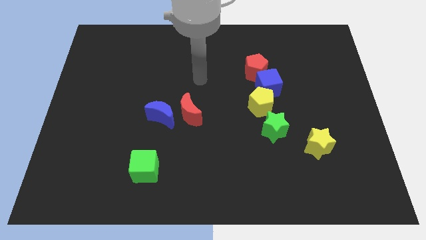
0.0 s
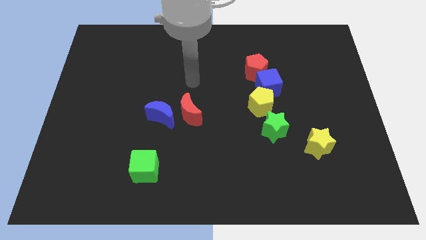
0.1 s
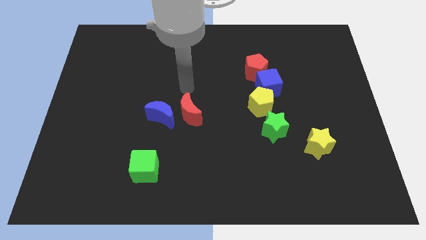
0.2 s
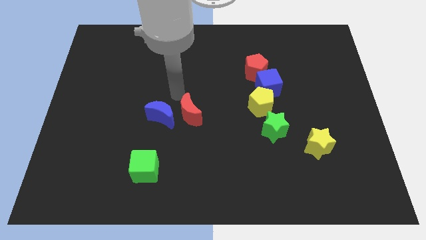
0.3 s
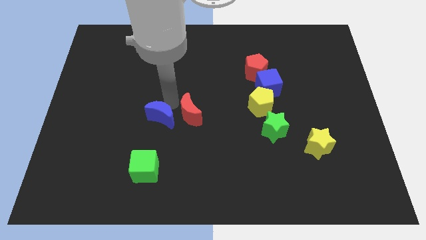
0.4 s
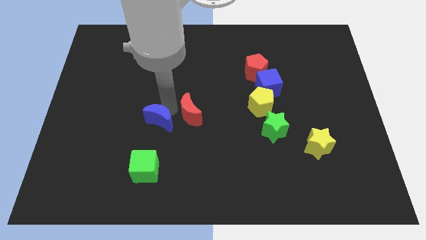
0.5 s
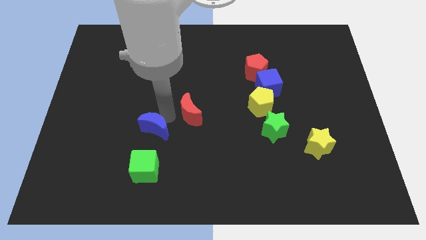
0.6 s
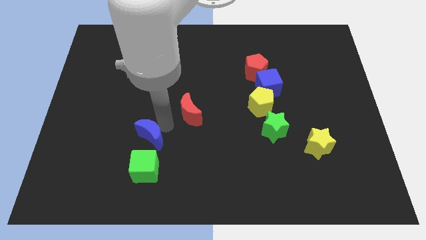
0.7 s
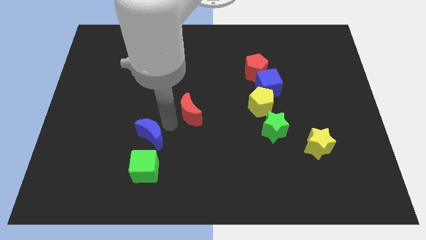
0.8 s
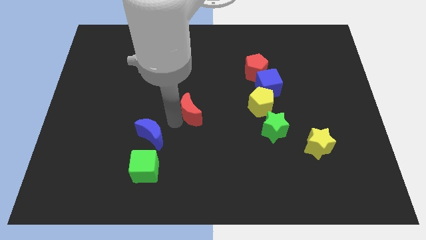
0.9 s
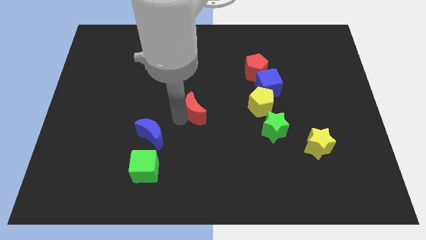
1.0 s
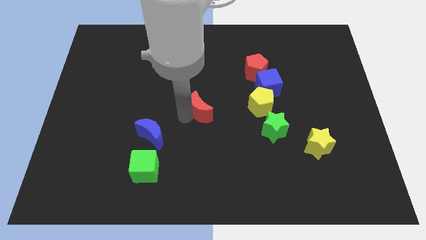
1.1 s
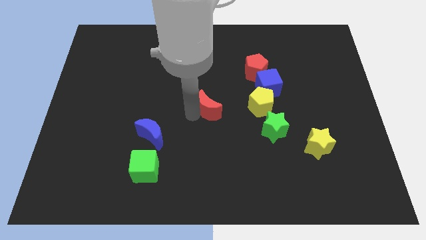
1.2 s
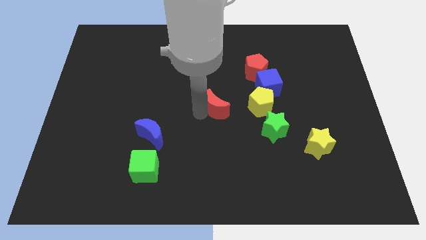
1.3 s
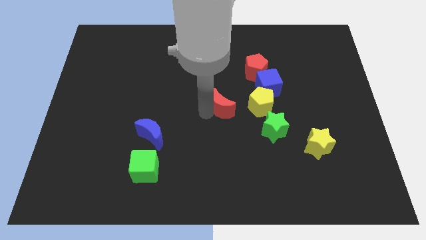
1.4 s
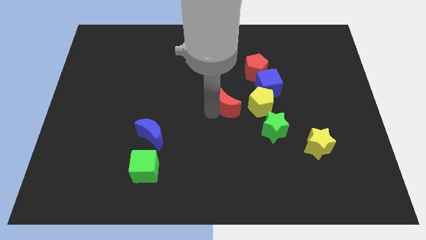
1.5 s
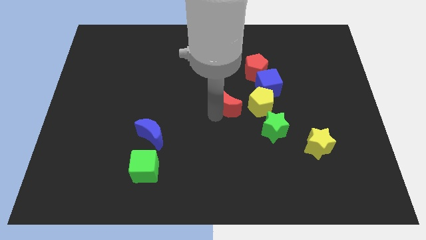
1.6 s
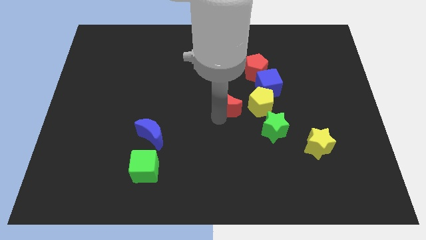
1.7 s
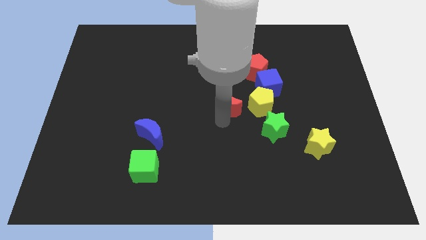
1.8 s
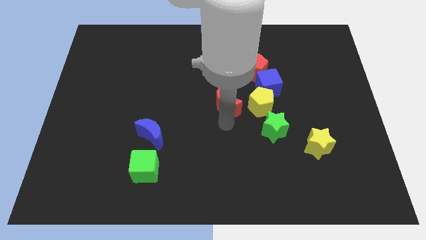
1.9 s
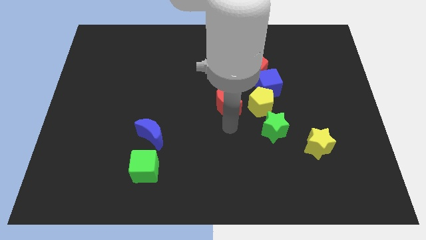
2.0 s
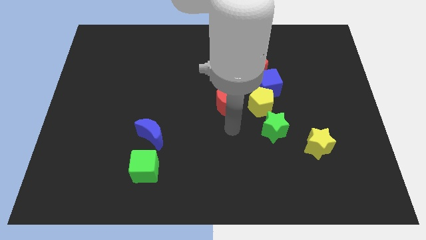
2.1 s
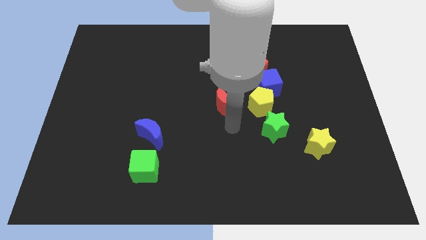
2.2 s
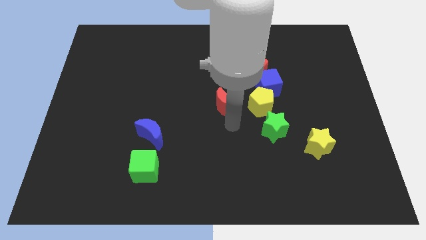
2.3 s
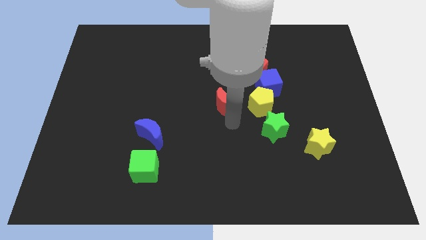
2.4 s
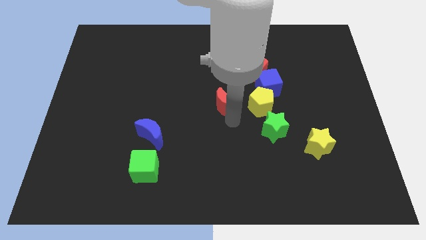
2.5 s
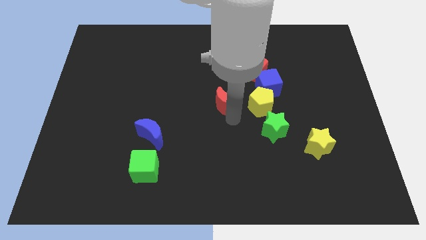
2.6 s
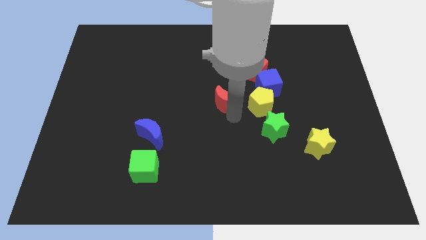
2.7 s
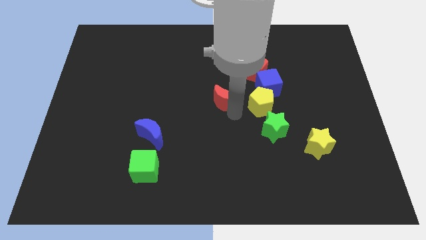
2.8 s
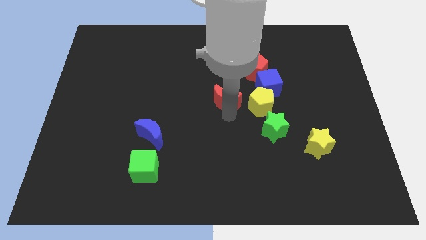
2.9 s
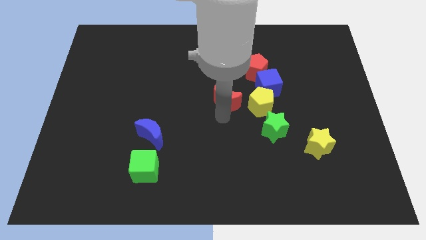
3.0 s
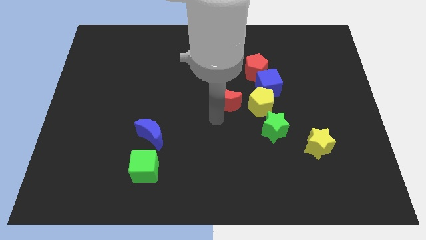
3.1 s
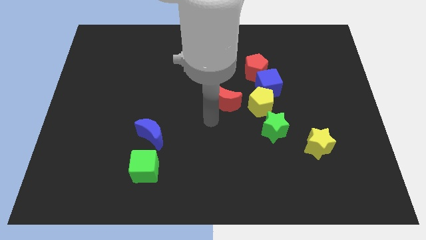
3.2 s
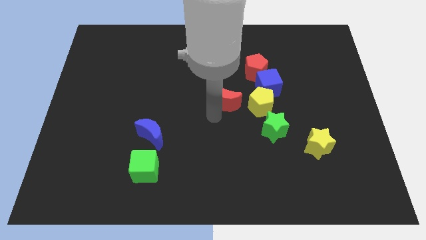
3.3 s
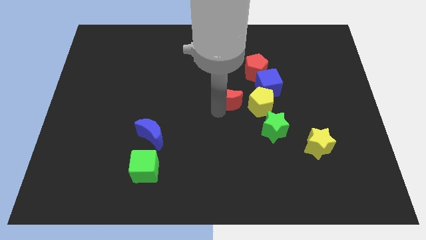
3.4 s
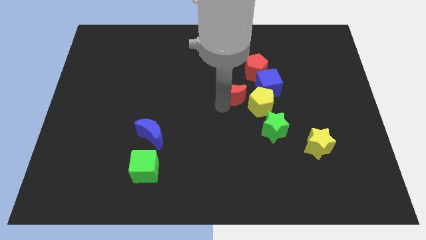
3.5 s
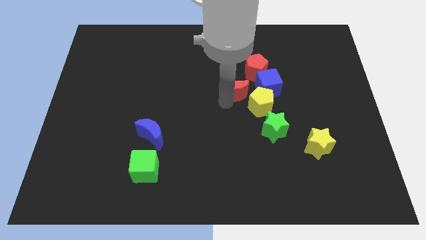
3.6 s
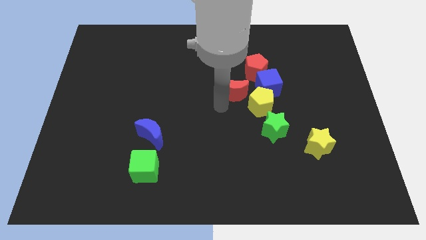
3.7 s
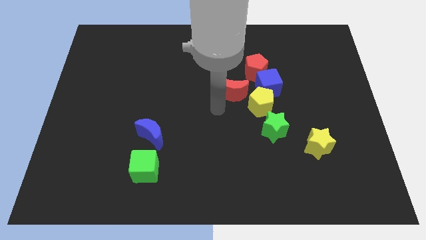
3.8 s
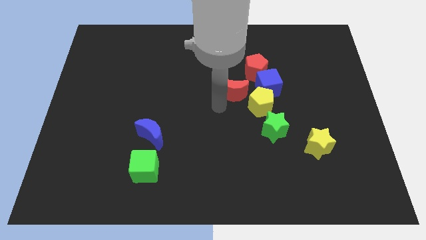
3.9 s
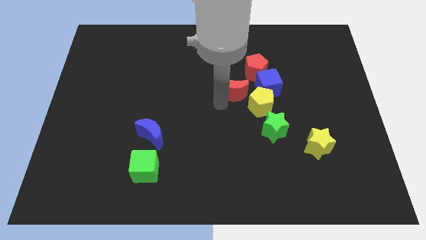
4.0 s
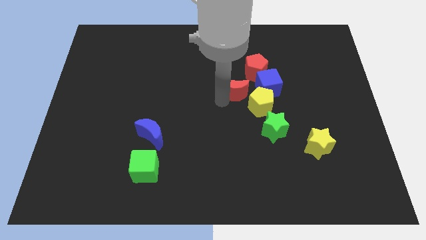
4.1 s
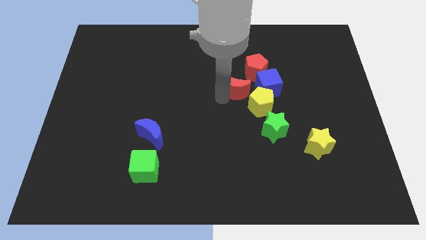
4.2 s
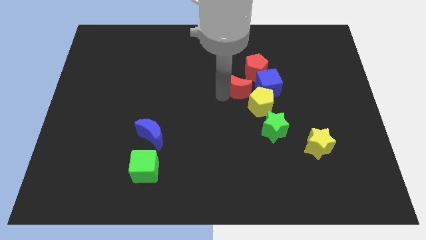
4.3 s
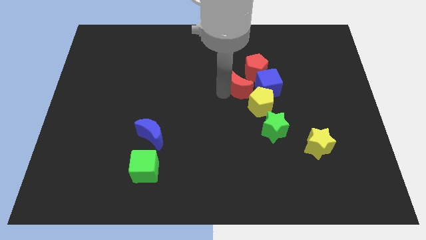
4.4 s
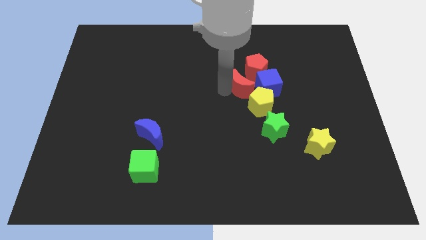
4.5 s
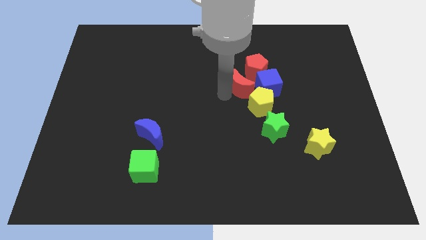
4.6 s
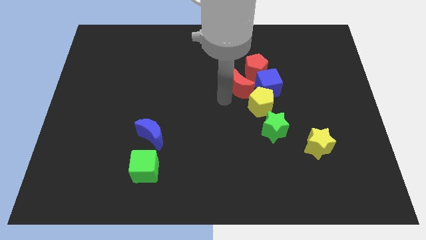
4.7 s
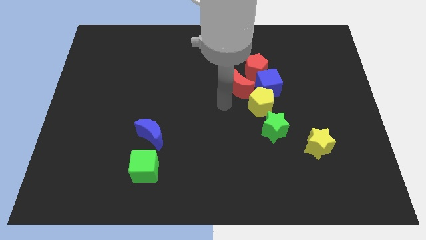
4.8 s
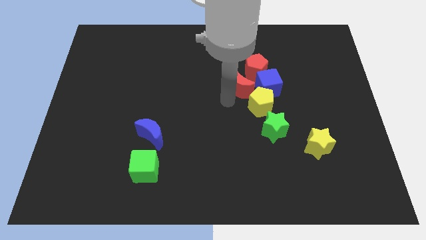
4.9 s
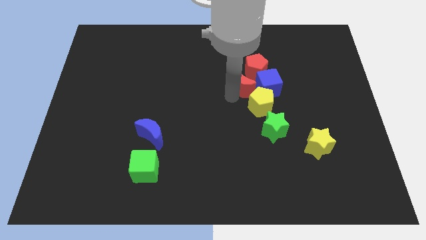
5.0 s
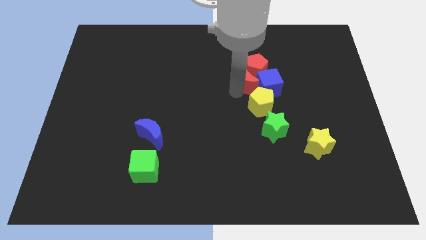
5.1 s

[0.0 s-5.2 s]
move the red moon close to the red pentagon

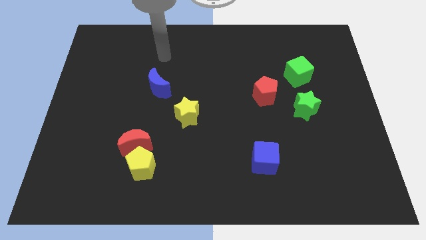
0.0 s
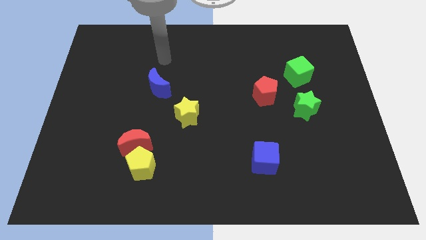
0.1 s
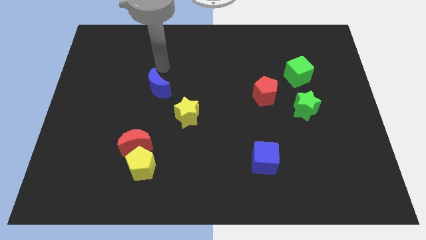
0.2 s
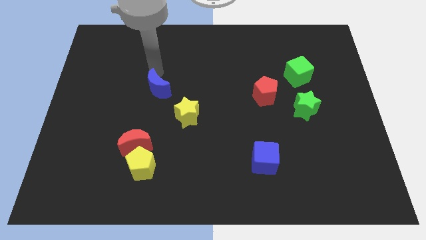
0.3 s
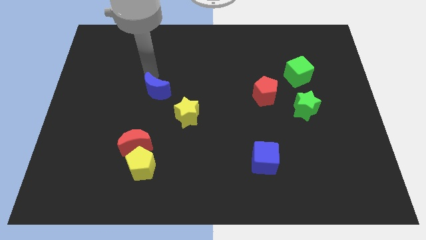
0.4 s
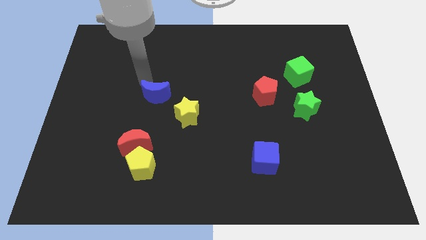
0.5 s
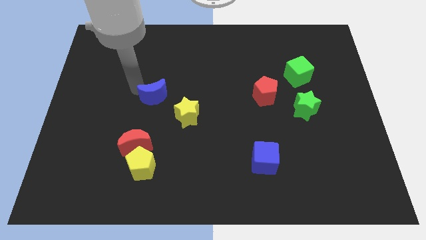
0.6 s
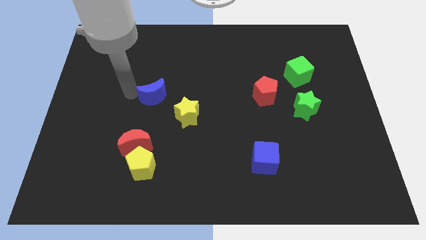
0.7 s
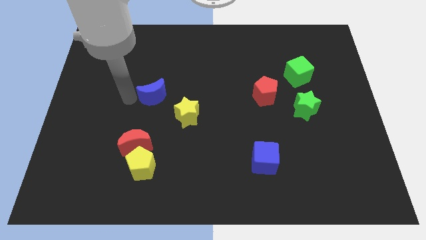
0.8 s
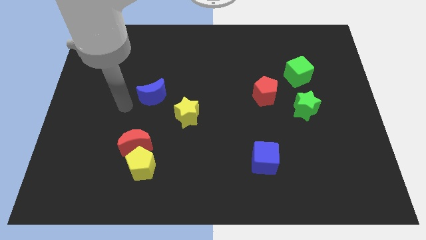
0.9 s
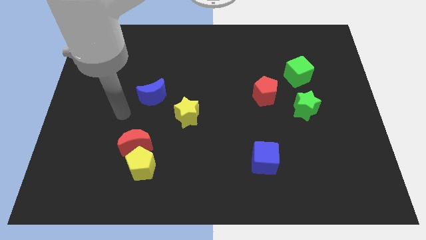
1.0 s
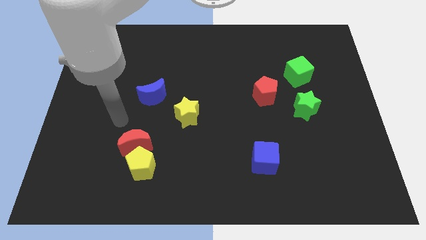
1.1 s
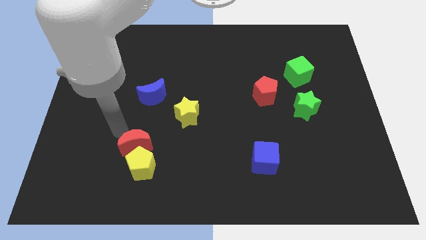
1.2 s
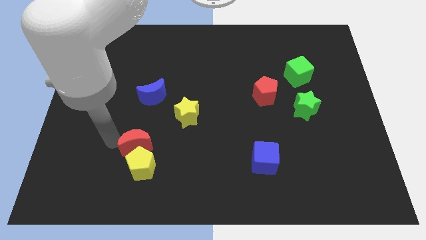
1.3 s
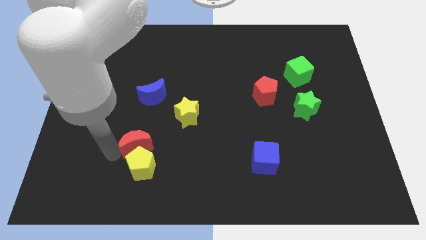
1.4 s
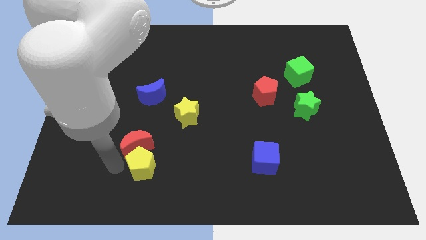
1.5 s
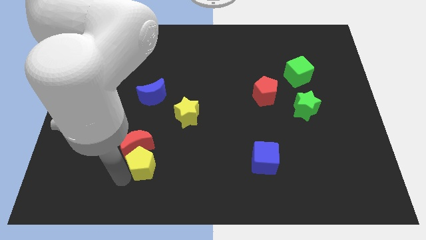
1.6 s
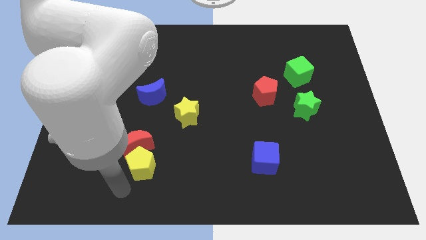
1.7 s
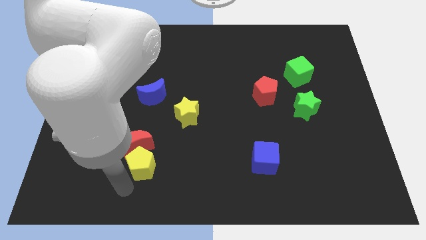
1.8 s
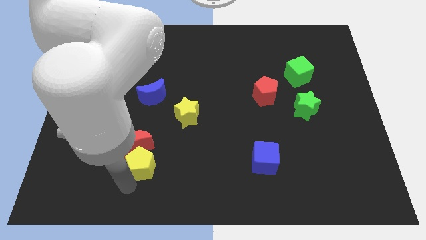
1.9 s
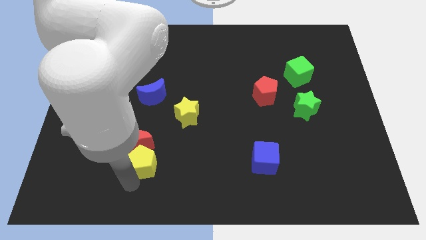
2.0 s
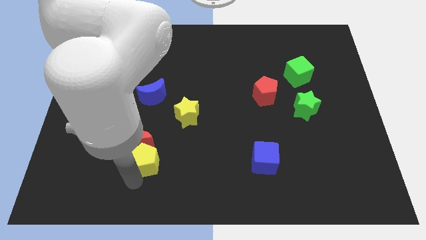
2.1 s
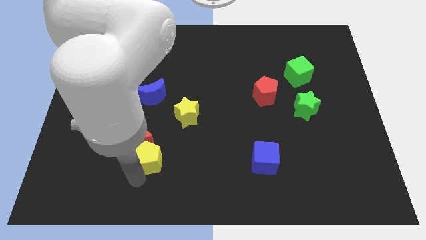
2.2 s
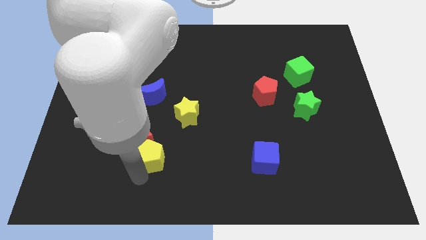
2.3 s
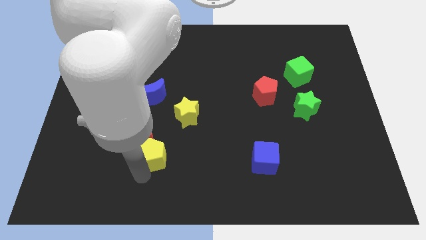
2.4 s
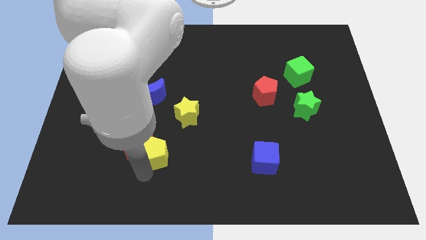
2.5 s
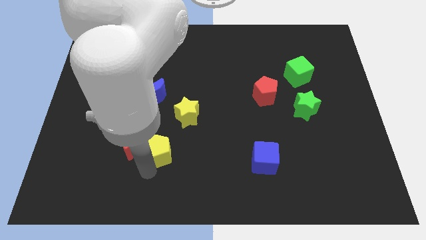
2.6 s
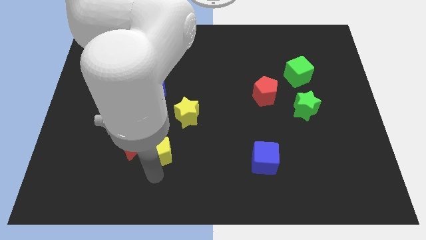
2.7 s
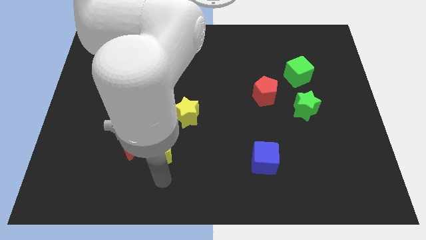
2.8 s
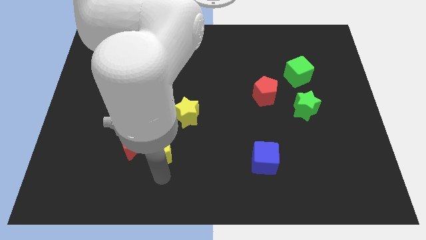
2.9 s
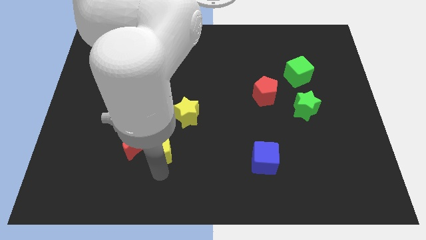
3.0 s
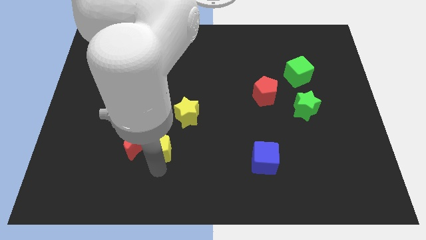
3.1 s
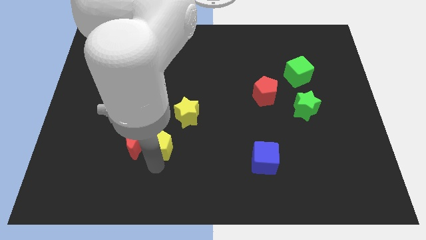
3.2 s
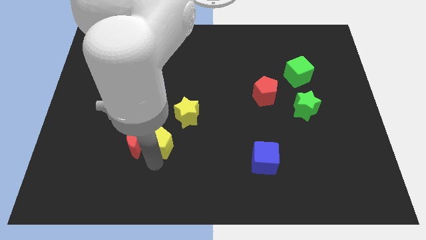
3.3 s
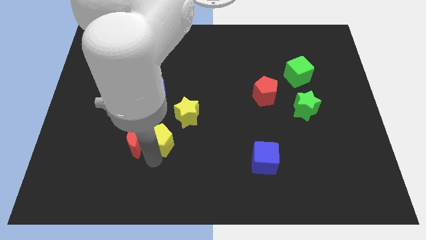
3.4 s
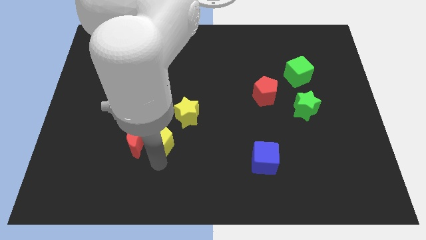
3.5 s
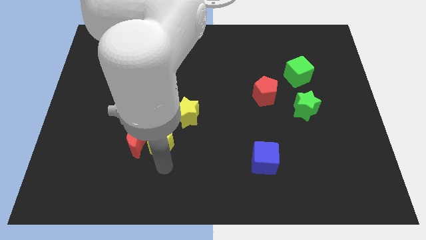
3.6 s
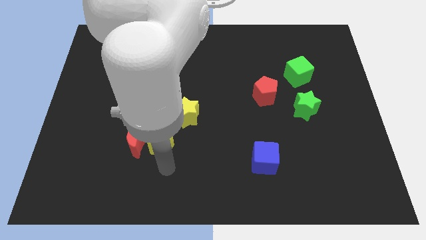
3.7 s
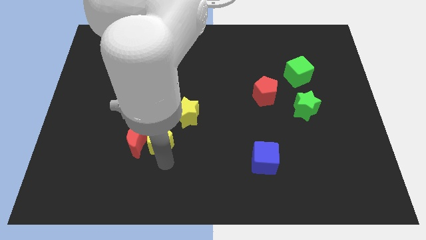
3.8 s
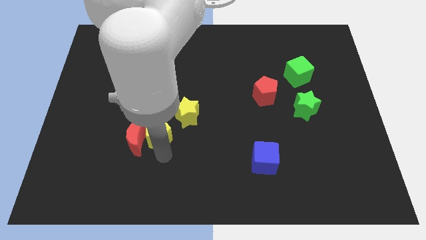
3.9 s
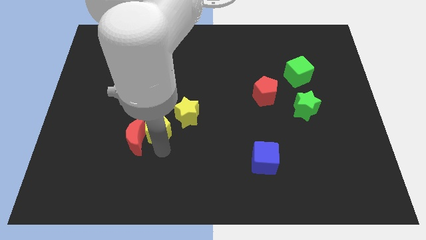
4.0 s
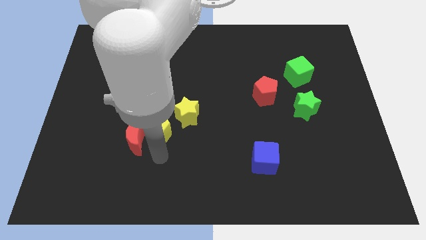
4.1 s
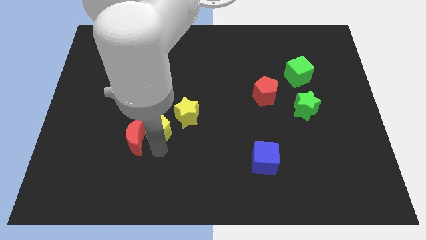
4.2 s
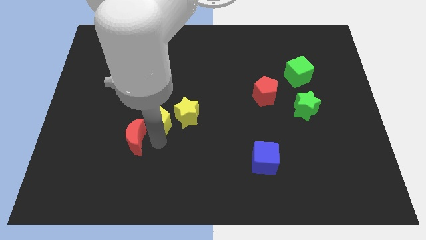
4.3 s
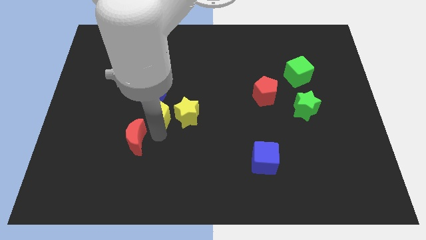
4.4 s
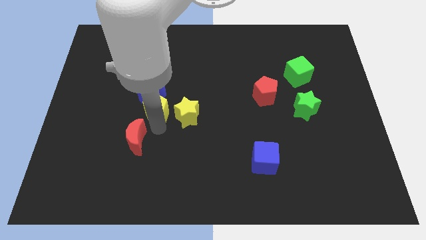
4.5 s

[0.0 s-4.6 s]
move the yellow pentagon towards the blue moon
